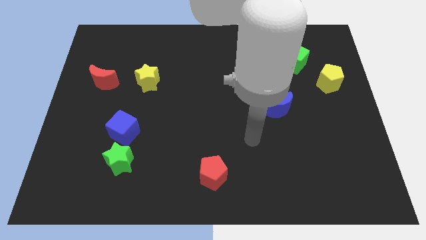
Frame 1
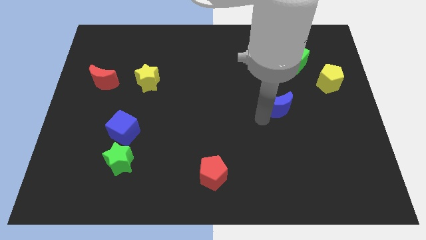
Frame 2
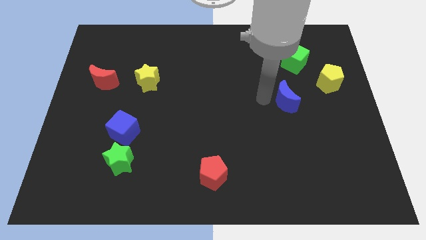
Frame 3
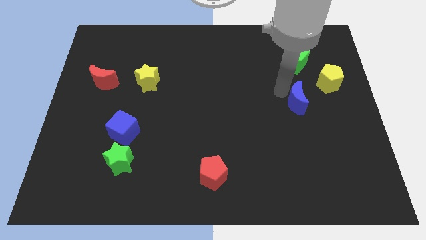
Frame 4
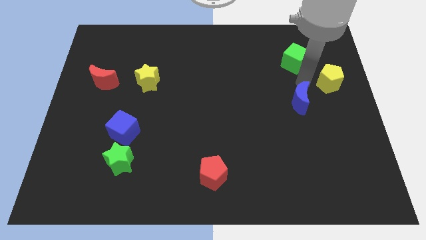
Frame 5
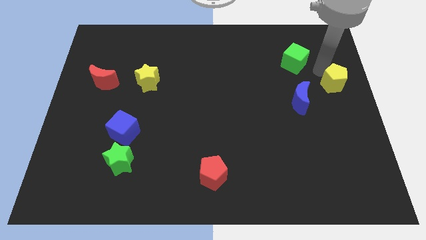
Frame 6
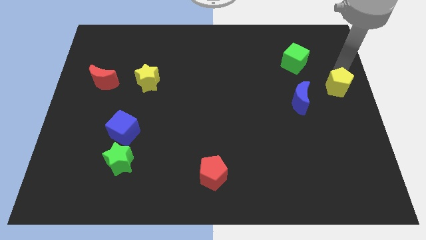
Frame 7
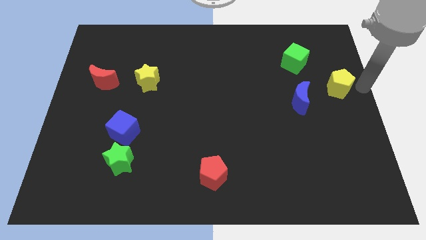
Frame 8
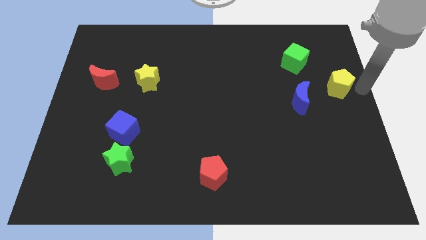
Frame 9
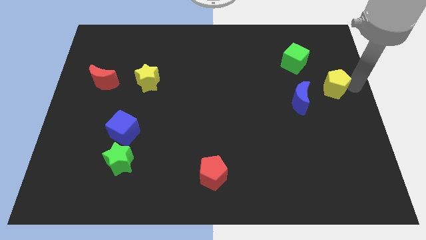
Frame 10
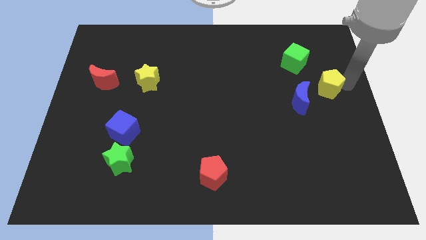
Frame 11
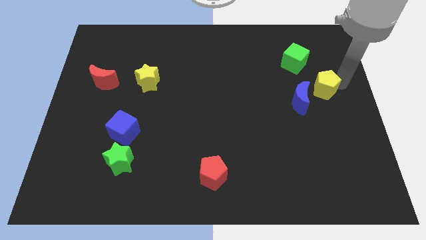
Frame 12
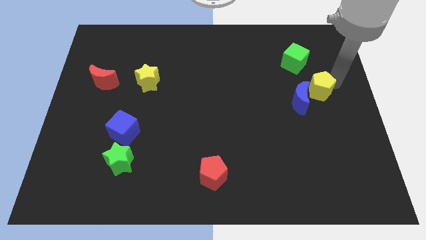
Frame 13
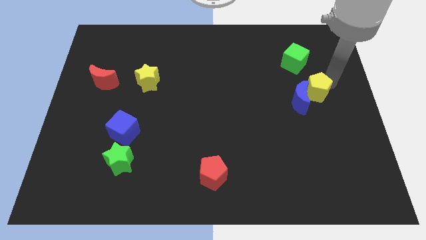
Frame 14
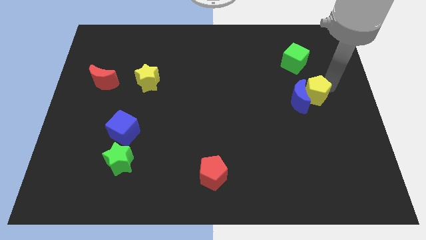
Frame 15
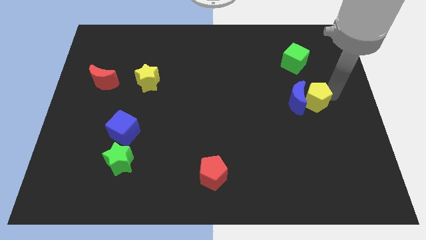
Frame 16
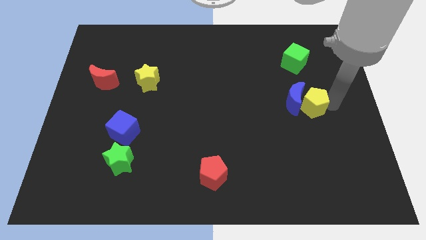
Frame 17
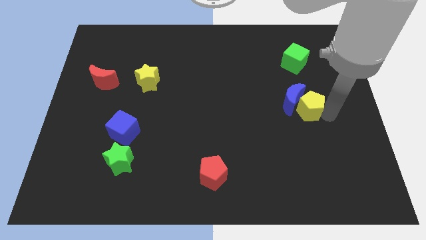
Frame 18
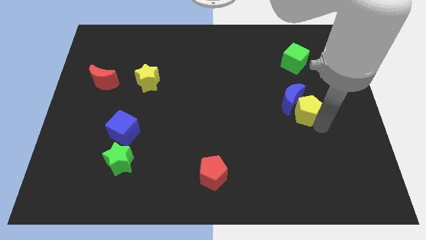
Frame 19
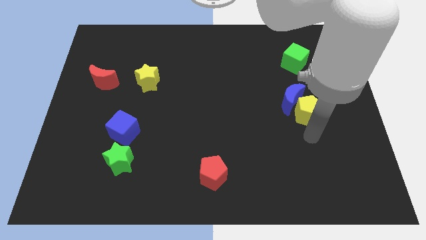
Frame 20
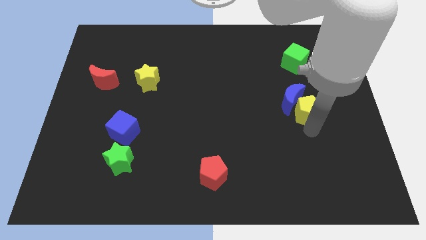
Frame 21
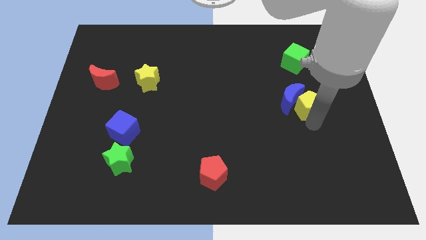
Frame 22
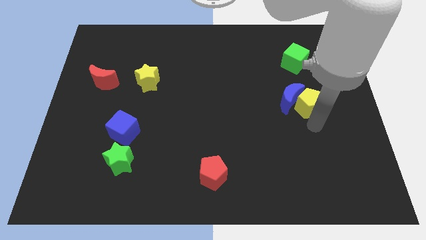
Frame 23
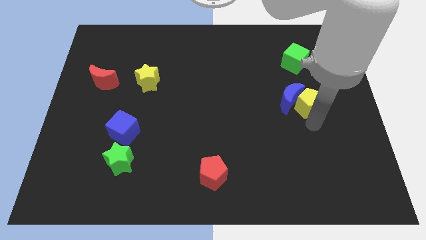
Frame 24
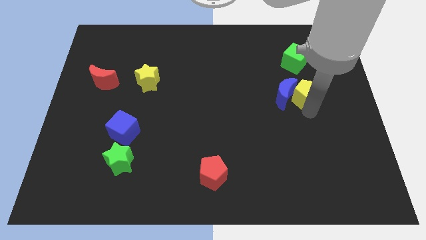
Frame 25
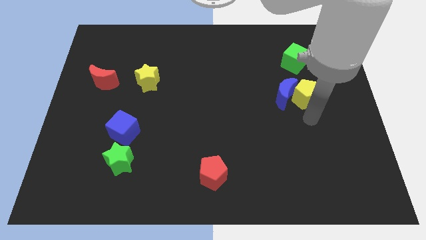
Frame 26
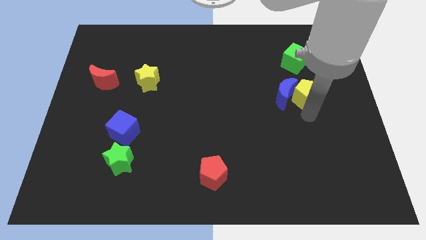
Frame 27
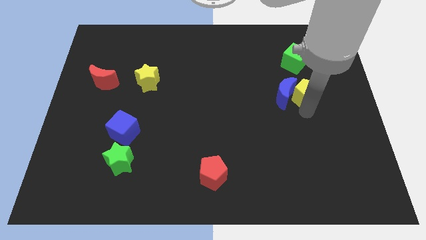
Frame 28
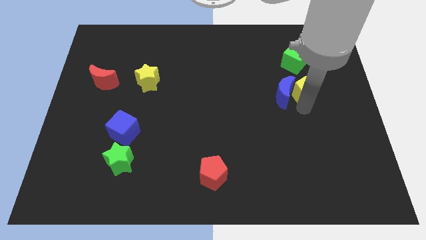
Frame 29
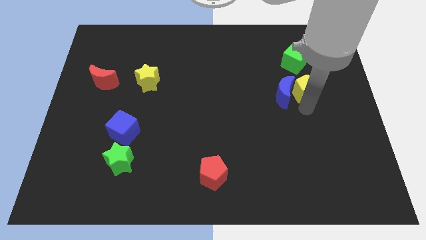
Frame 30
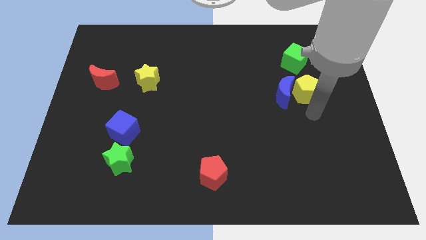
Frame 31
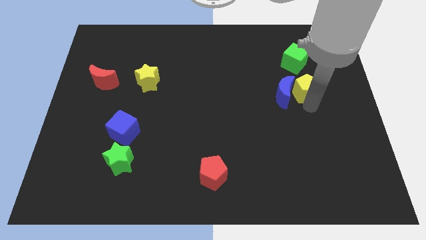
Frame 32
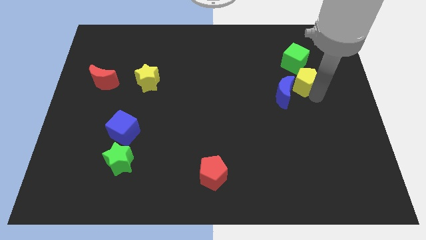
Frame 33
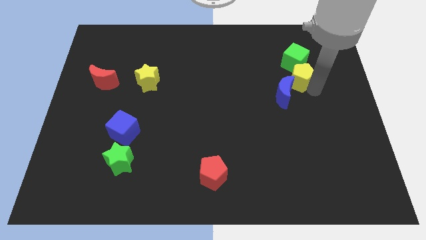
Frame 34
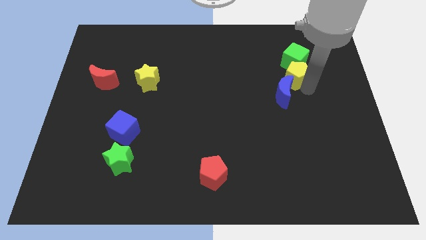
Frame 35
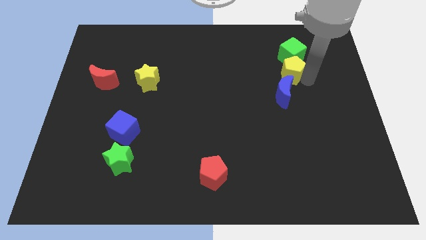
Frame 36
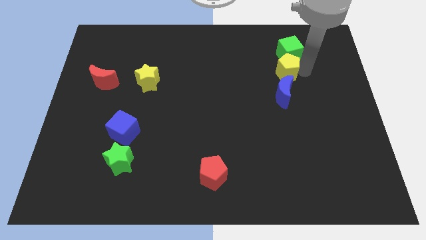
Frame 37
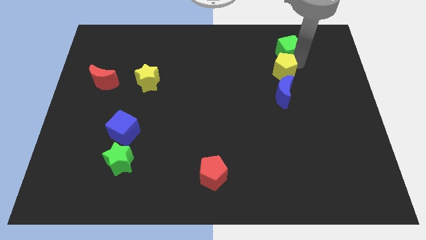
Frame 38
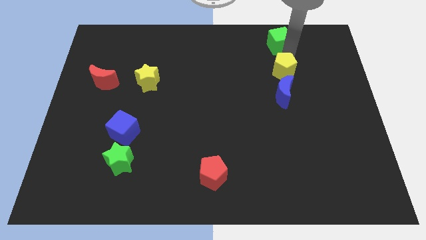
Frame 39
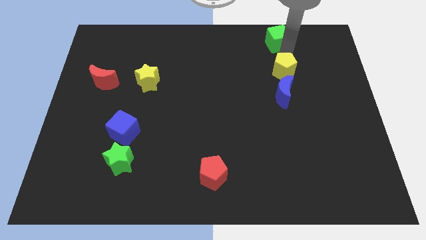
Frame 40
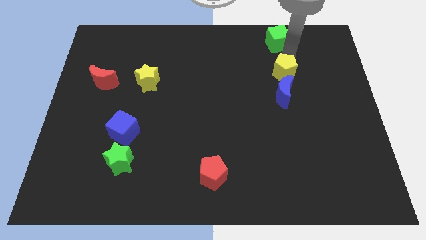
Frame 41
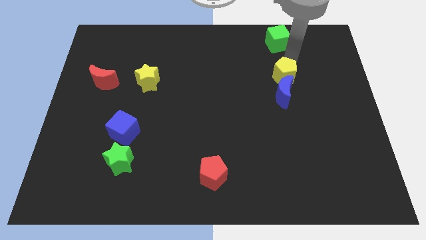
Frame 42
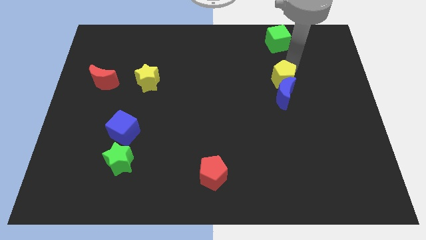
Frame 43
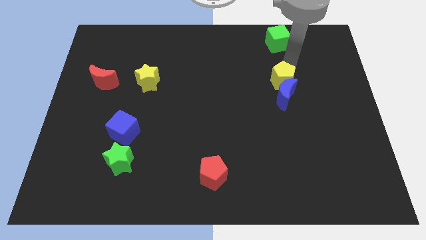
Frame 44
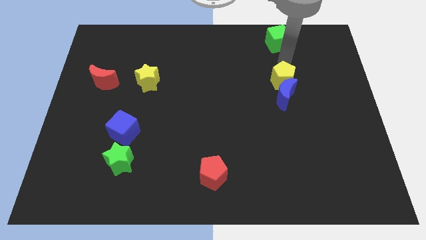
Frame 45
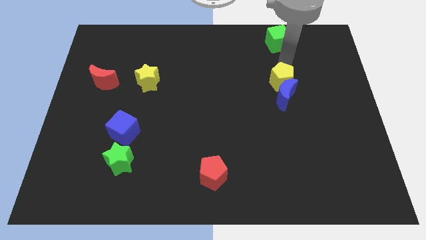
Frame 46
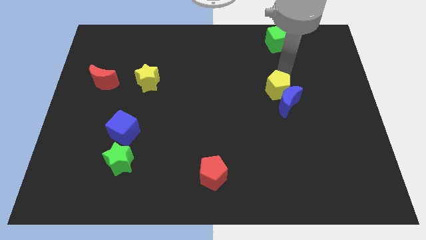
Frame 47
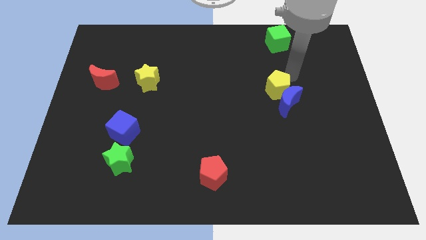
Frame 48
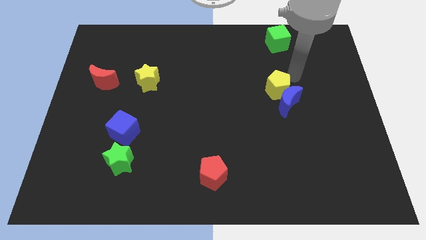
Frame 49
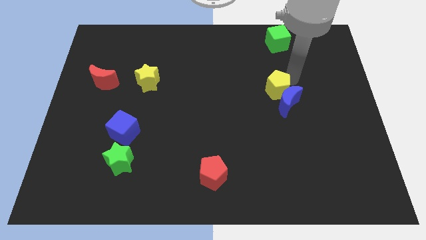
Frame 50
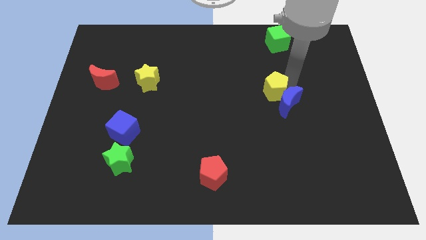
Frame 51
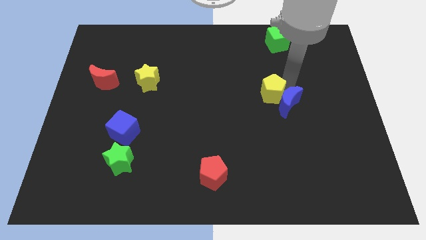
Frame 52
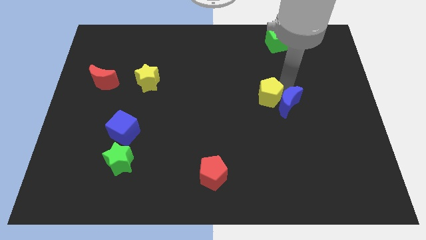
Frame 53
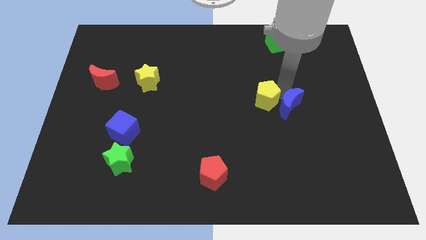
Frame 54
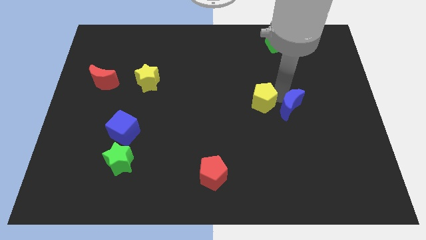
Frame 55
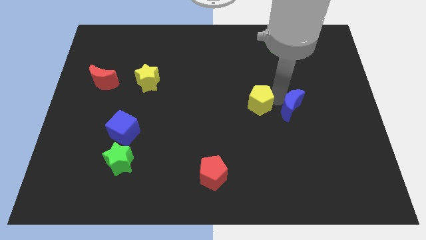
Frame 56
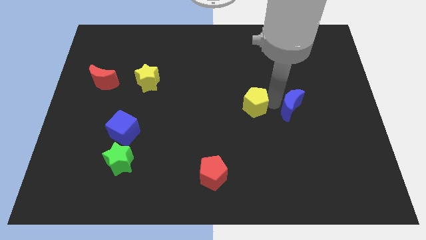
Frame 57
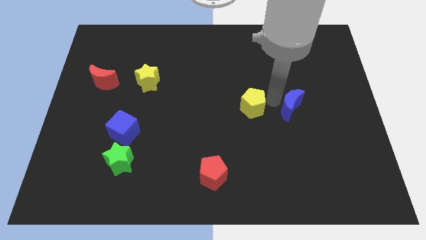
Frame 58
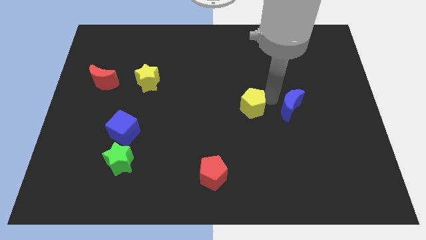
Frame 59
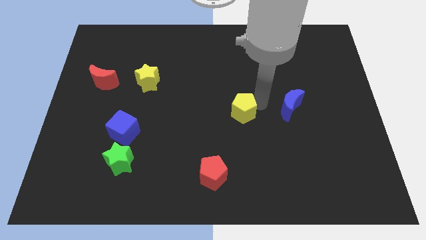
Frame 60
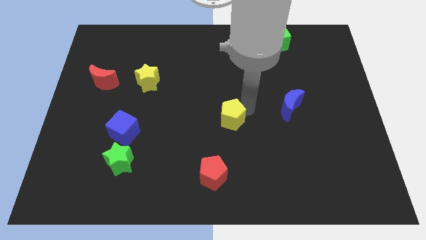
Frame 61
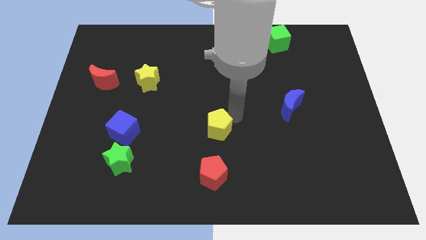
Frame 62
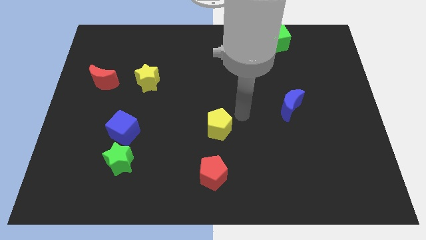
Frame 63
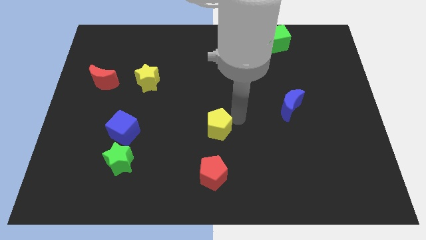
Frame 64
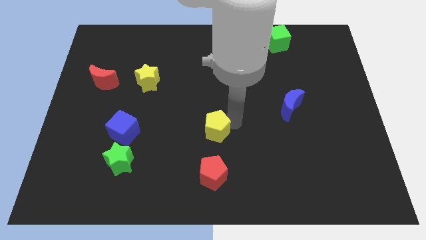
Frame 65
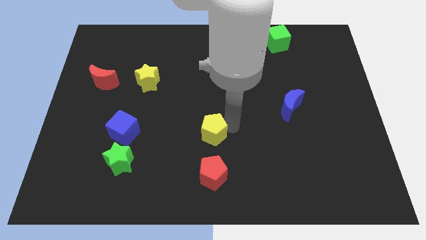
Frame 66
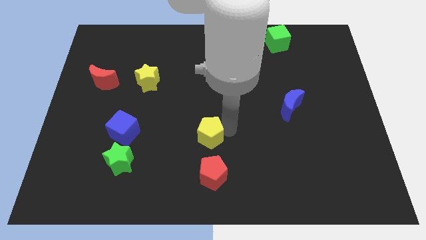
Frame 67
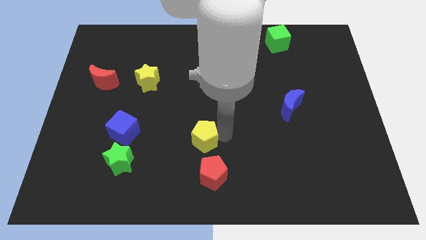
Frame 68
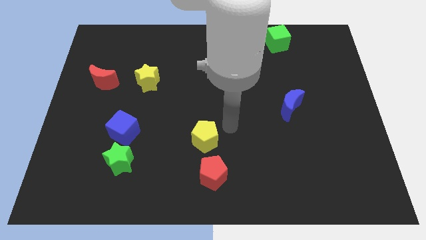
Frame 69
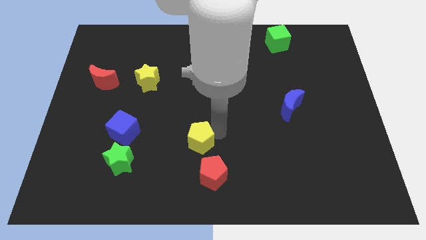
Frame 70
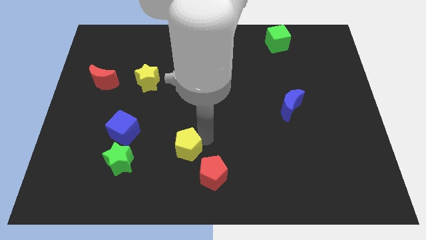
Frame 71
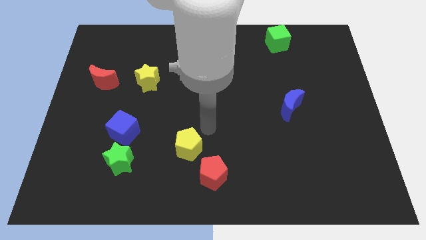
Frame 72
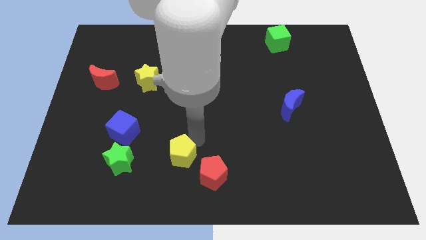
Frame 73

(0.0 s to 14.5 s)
put the yellow pentagon left of the red pentagon
